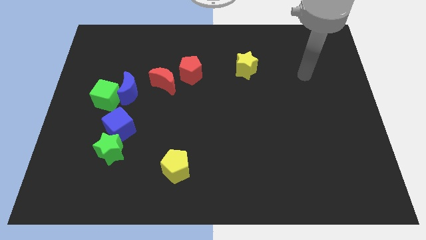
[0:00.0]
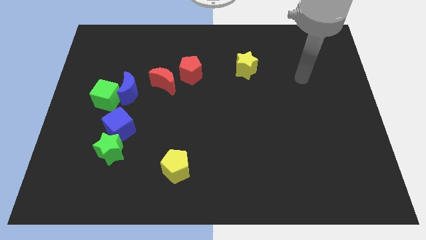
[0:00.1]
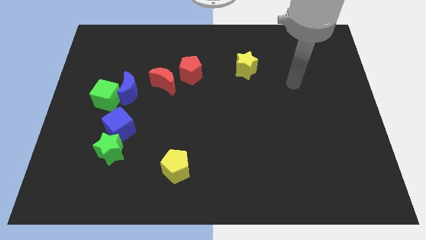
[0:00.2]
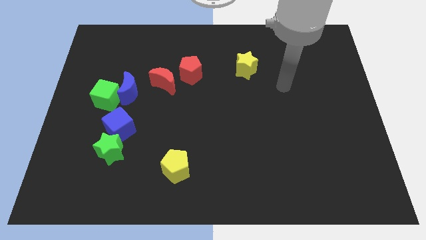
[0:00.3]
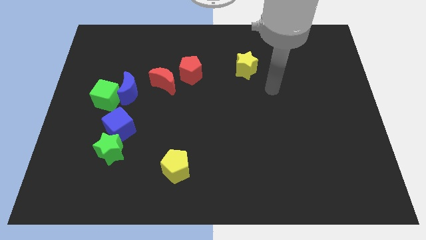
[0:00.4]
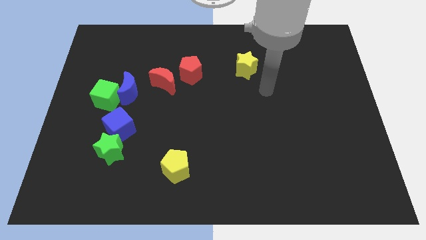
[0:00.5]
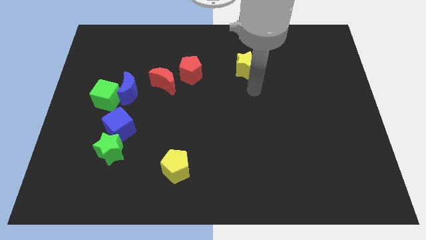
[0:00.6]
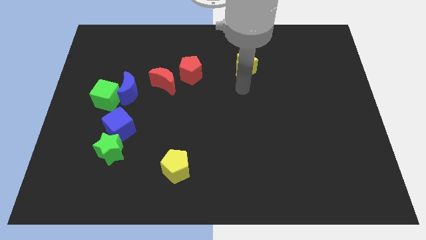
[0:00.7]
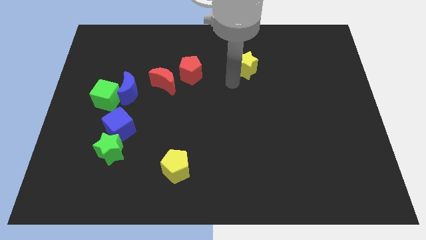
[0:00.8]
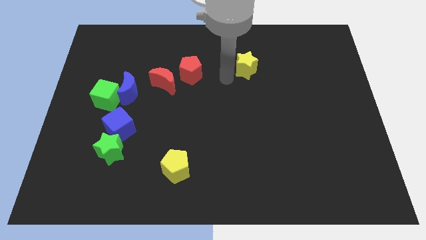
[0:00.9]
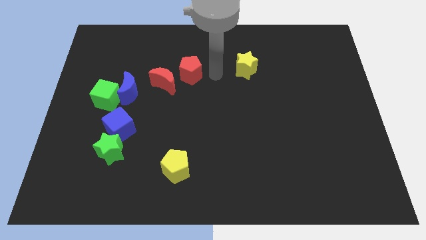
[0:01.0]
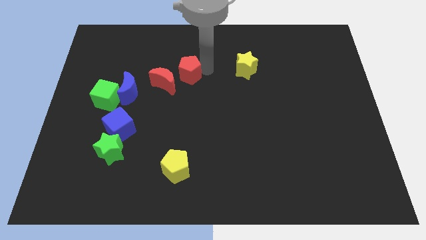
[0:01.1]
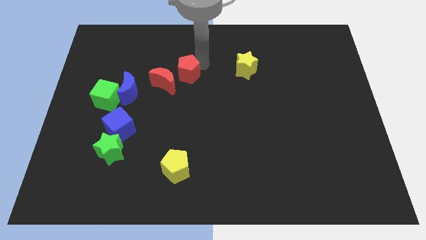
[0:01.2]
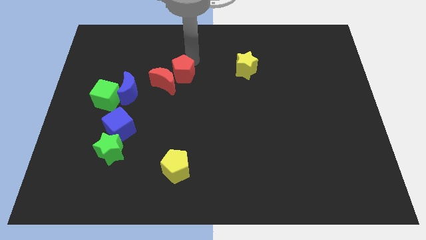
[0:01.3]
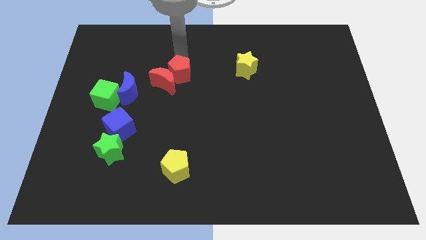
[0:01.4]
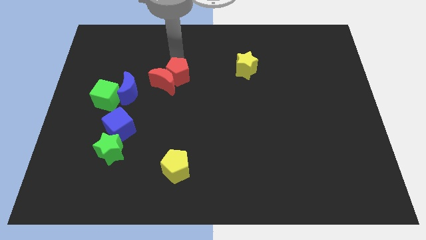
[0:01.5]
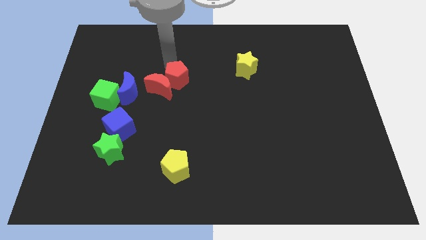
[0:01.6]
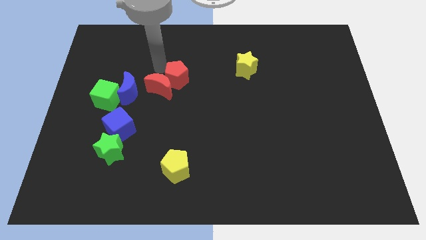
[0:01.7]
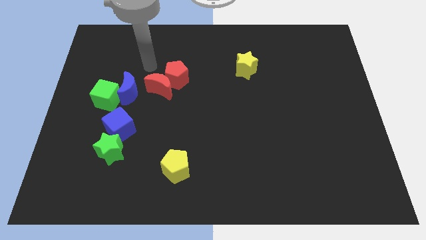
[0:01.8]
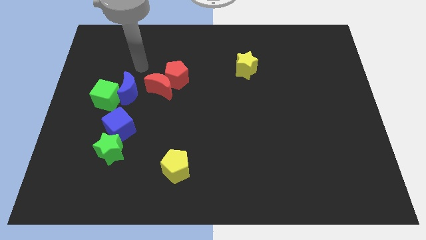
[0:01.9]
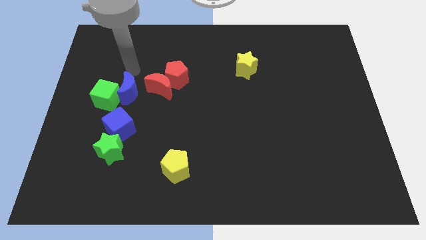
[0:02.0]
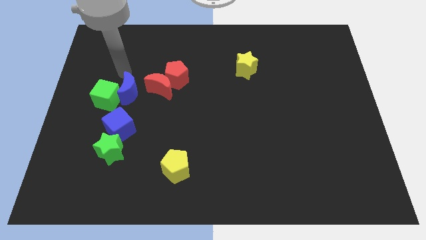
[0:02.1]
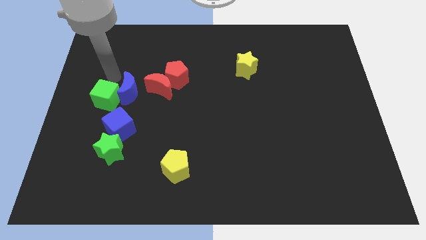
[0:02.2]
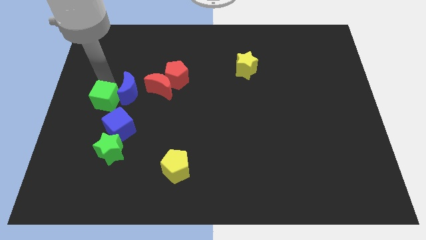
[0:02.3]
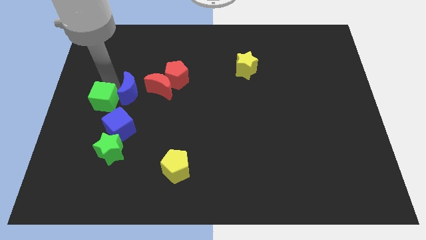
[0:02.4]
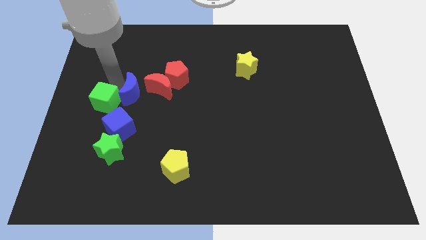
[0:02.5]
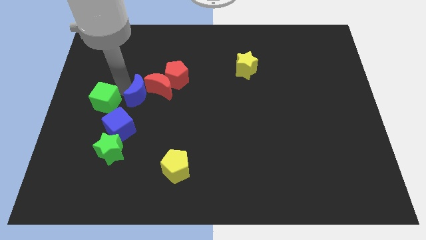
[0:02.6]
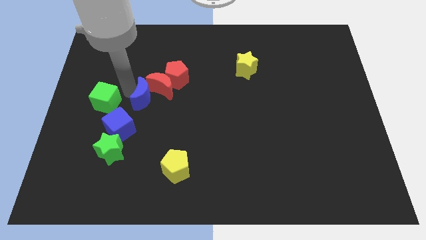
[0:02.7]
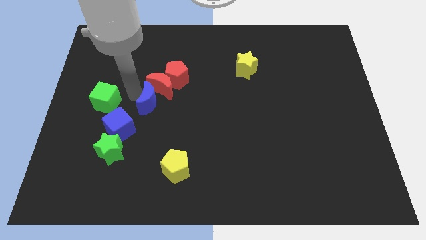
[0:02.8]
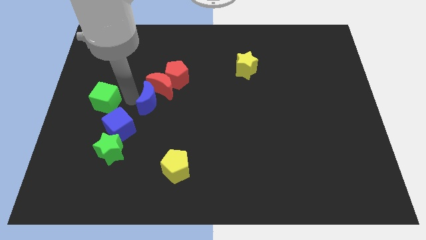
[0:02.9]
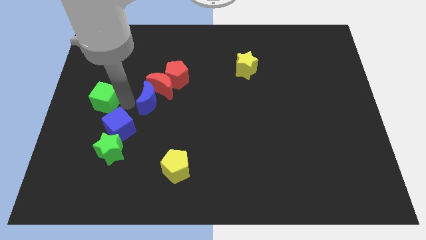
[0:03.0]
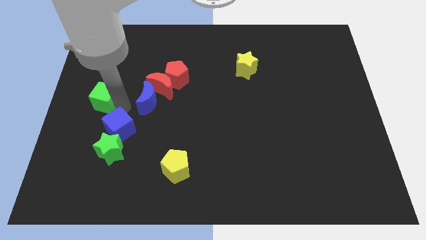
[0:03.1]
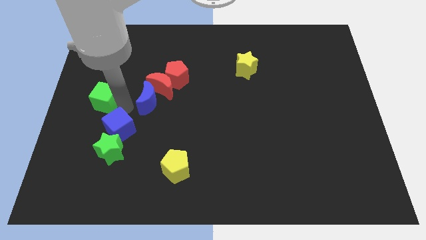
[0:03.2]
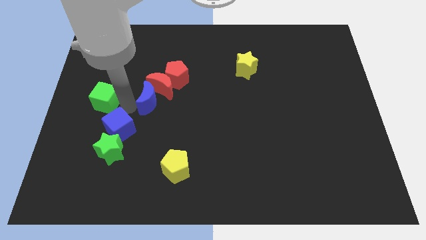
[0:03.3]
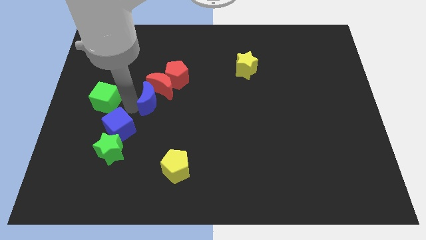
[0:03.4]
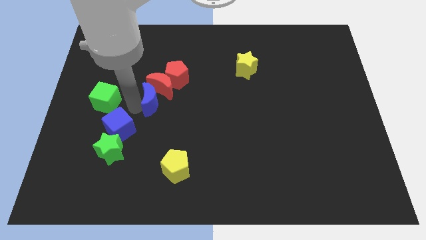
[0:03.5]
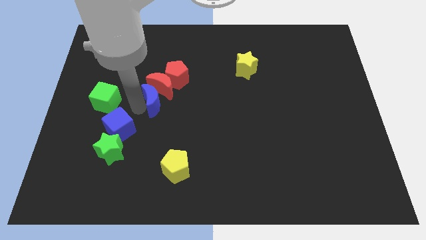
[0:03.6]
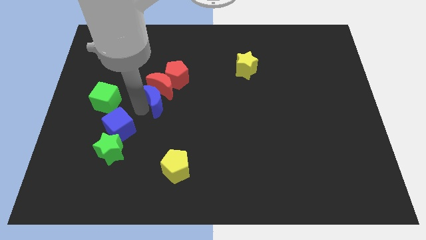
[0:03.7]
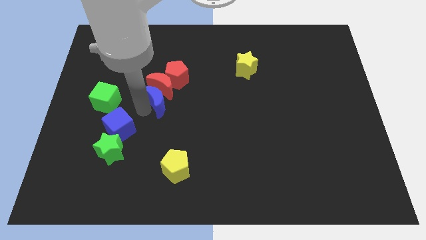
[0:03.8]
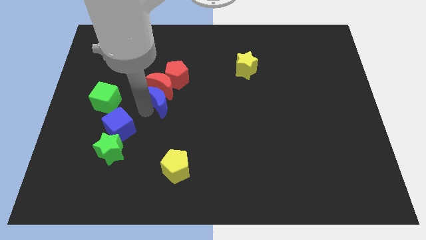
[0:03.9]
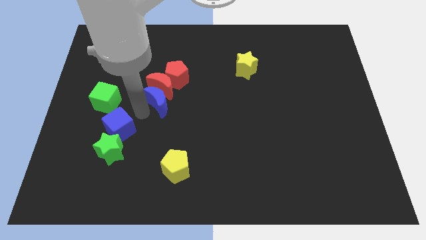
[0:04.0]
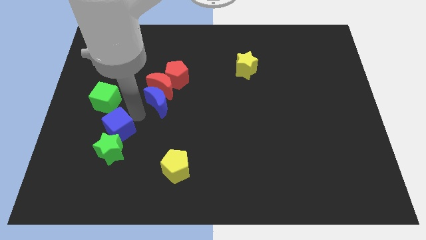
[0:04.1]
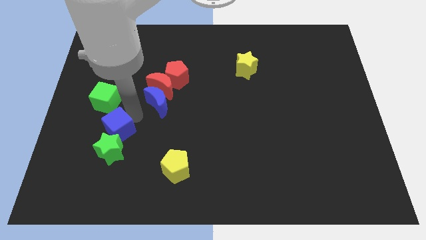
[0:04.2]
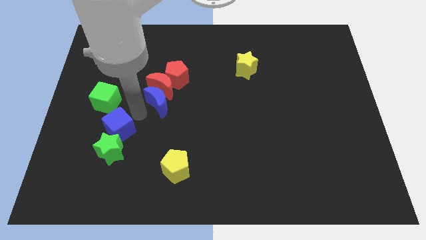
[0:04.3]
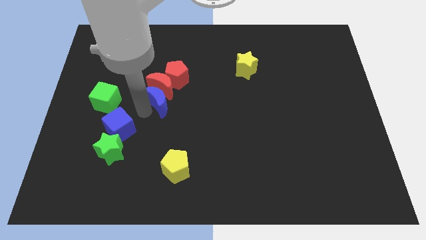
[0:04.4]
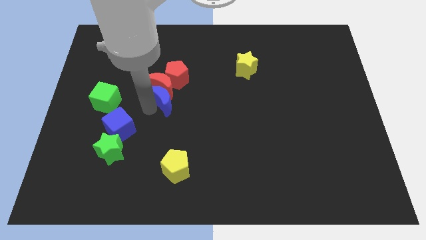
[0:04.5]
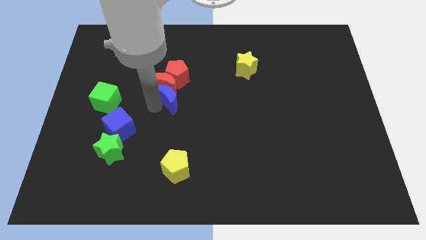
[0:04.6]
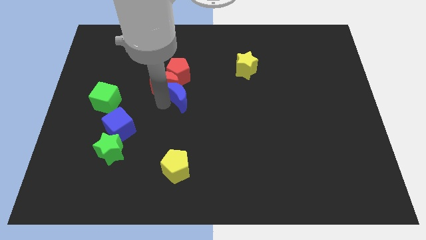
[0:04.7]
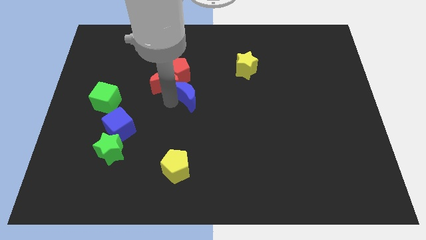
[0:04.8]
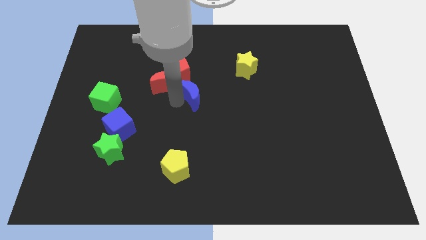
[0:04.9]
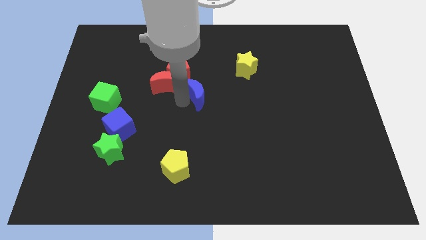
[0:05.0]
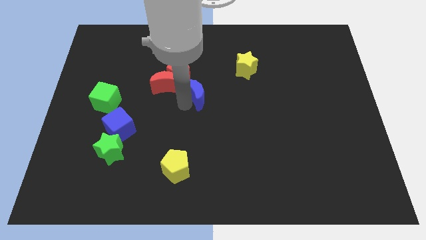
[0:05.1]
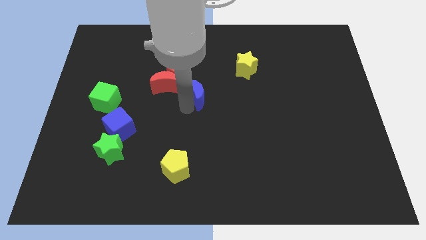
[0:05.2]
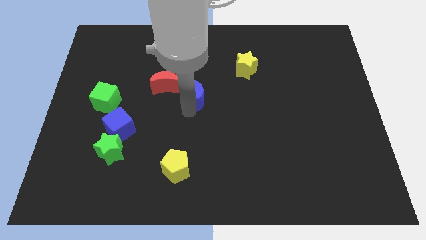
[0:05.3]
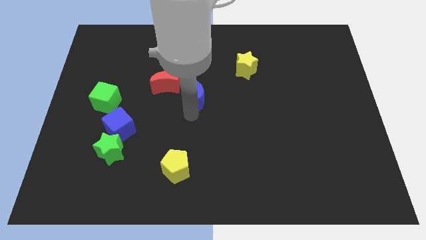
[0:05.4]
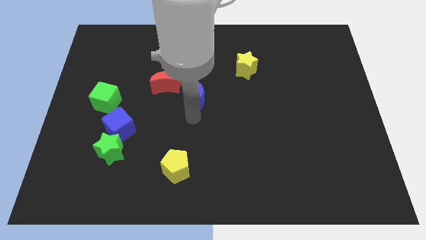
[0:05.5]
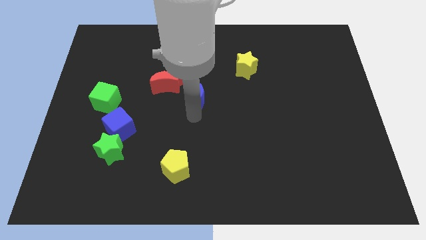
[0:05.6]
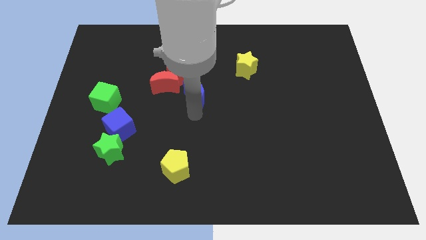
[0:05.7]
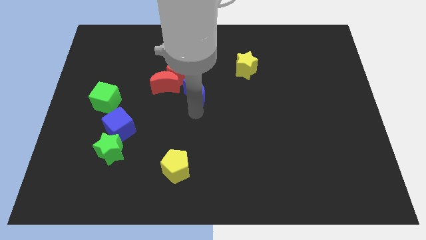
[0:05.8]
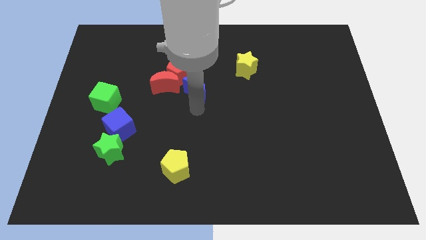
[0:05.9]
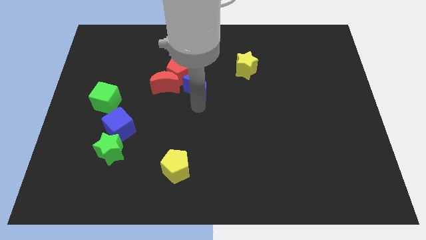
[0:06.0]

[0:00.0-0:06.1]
put the blue moon to the right side of the red pentagon

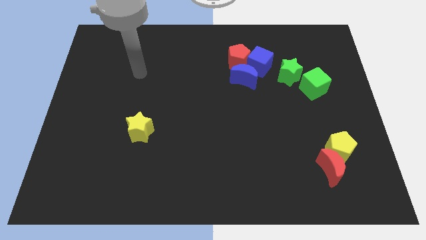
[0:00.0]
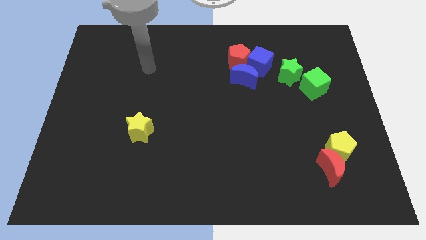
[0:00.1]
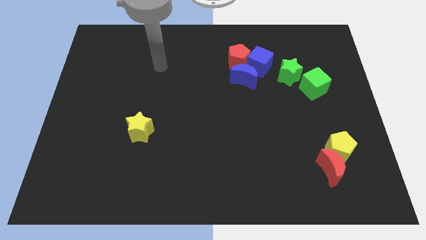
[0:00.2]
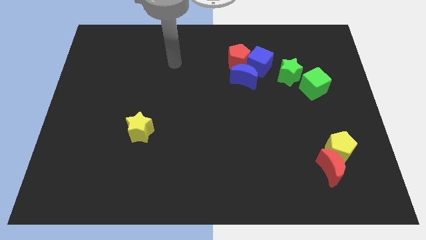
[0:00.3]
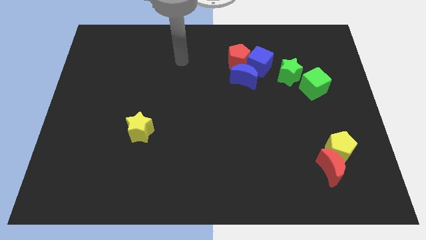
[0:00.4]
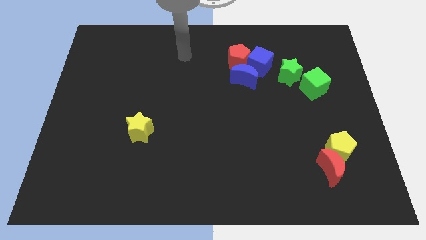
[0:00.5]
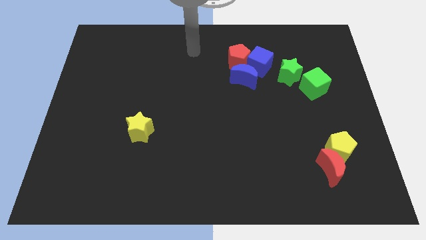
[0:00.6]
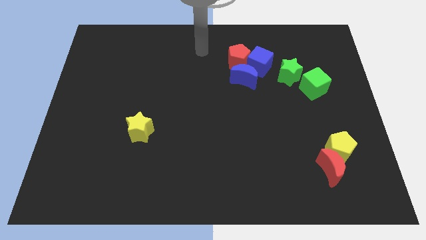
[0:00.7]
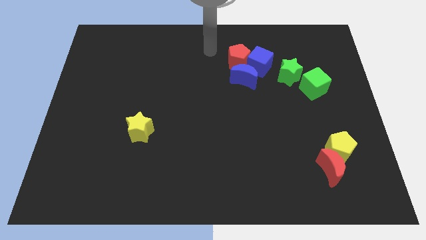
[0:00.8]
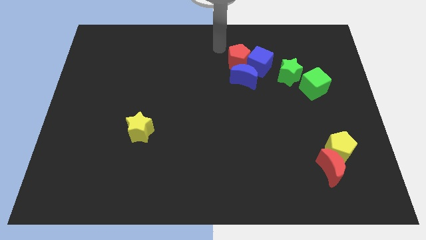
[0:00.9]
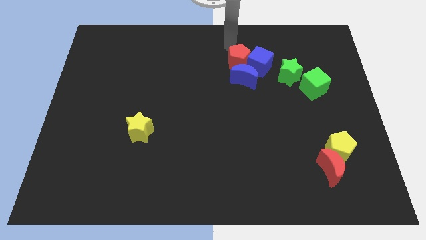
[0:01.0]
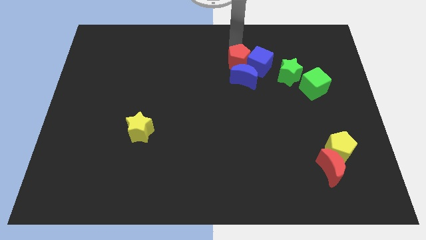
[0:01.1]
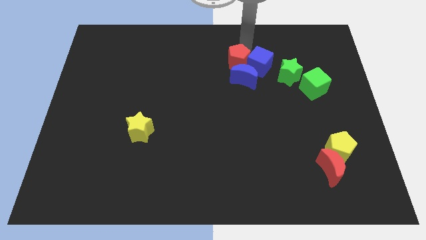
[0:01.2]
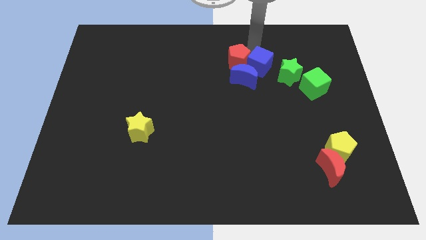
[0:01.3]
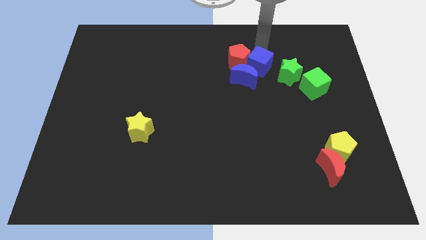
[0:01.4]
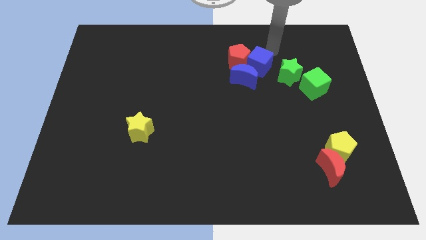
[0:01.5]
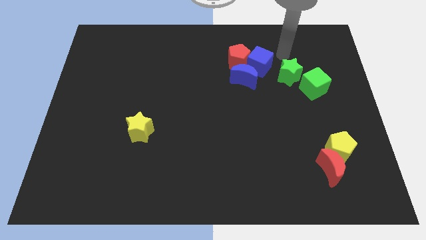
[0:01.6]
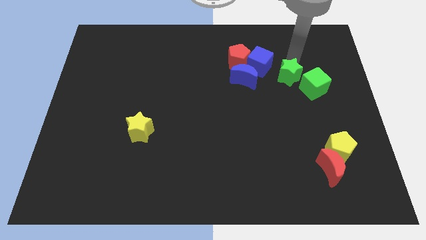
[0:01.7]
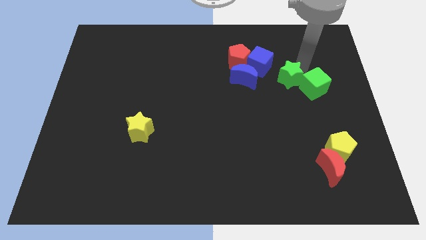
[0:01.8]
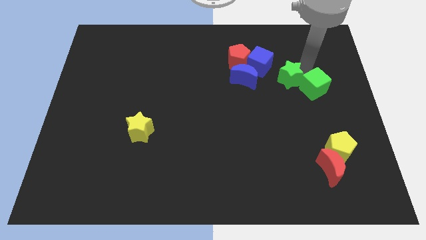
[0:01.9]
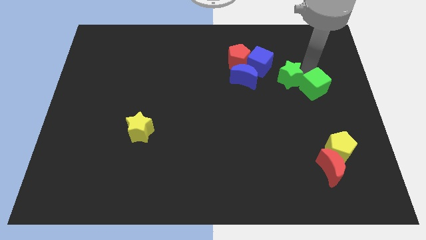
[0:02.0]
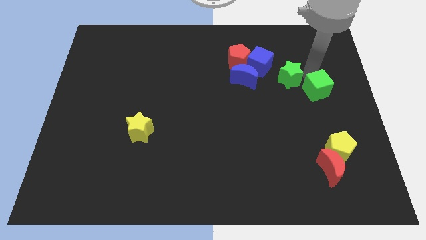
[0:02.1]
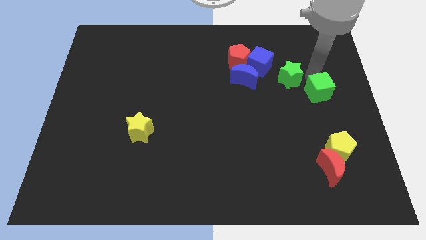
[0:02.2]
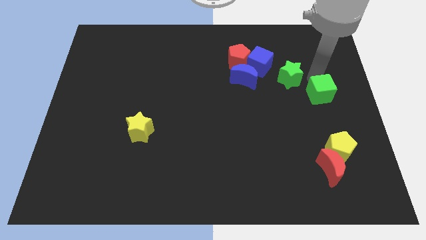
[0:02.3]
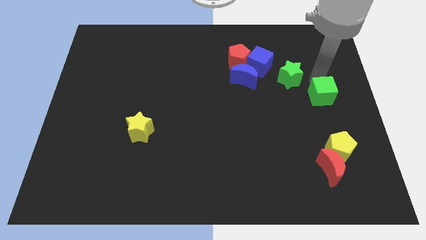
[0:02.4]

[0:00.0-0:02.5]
slide the green cube to the top of the yellow pentagon

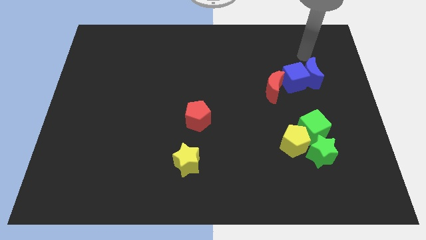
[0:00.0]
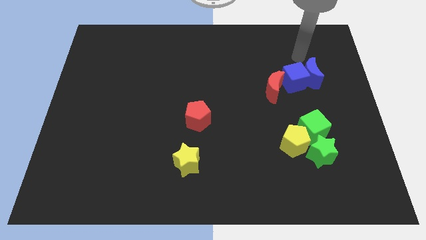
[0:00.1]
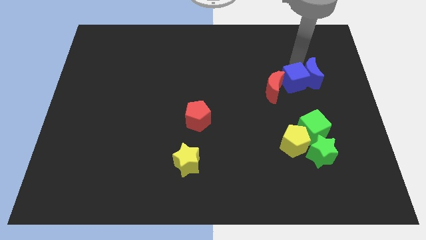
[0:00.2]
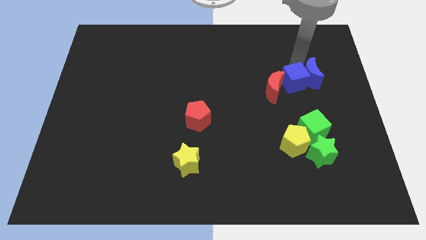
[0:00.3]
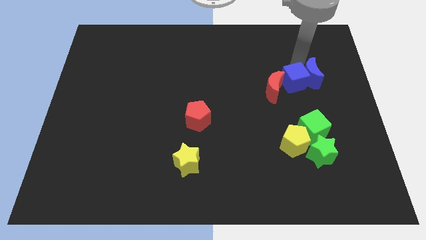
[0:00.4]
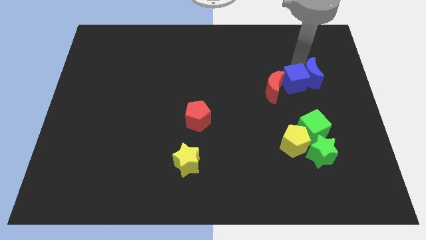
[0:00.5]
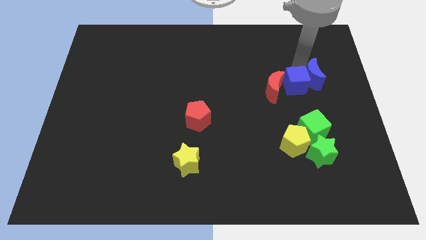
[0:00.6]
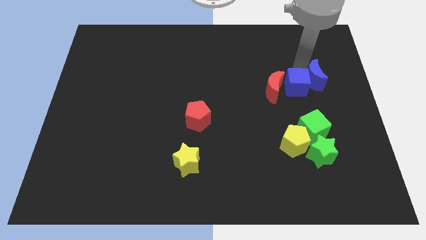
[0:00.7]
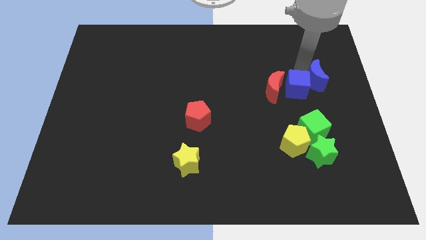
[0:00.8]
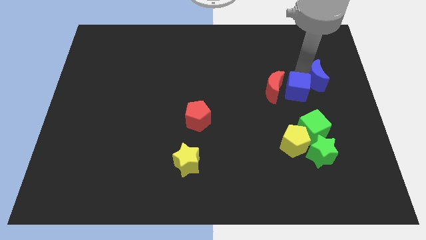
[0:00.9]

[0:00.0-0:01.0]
put the blue cube to the top side of the yellow pentagon
